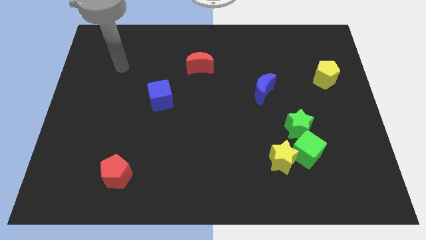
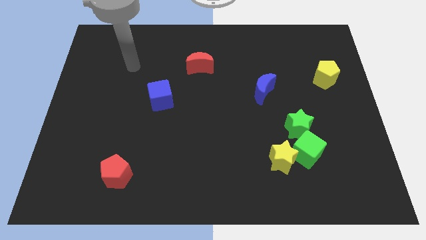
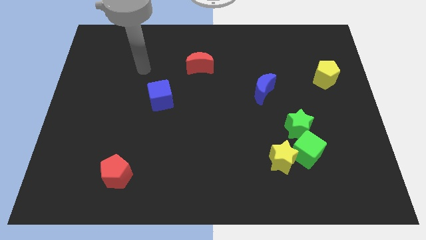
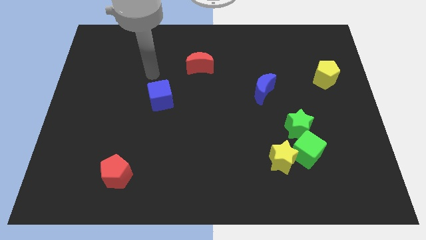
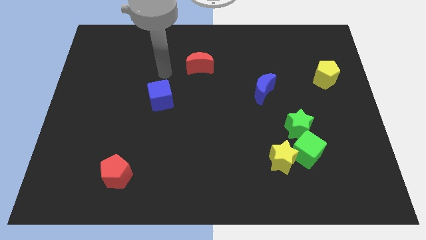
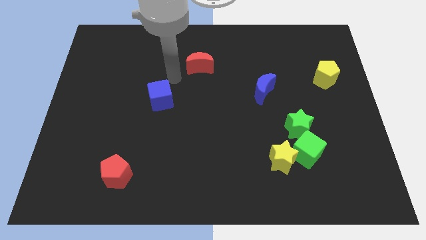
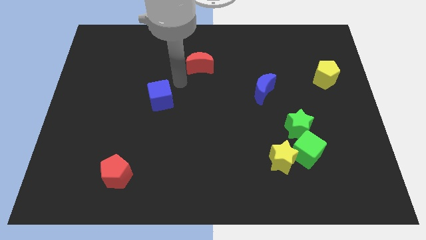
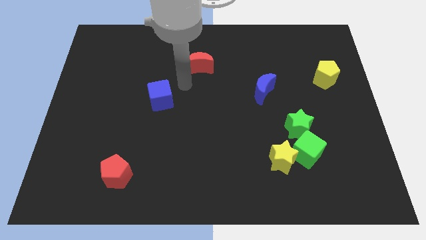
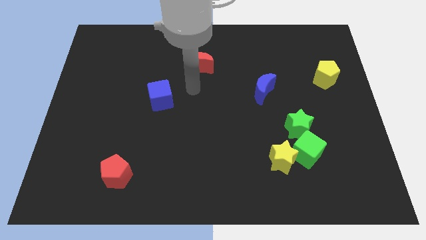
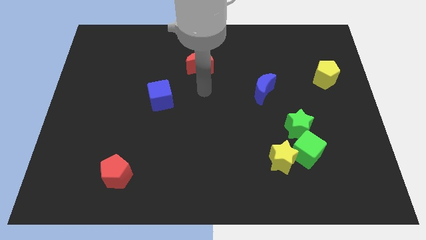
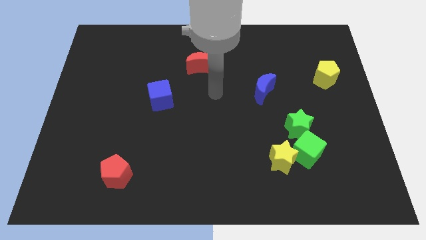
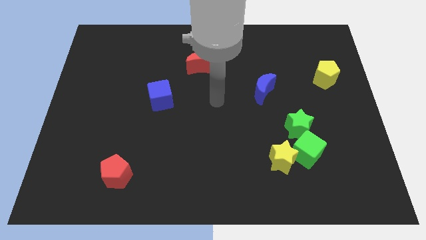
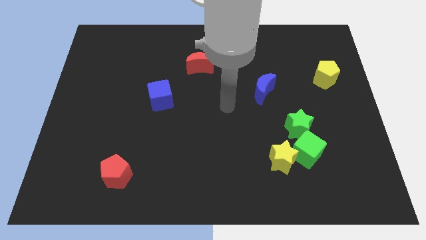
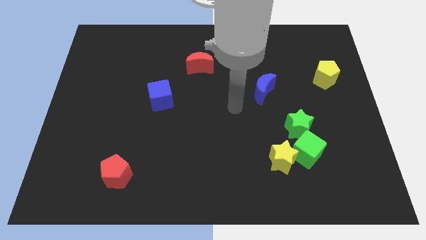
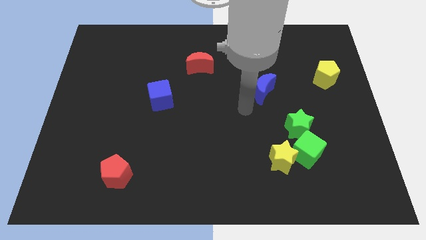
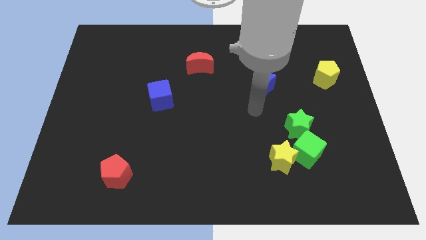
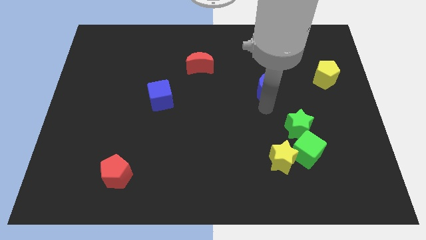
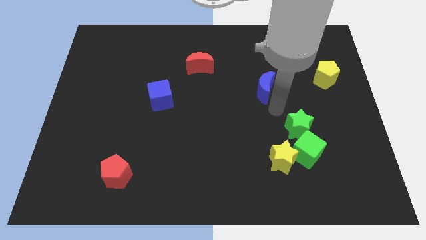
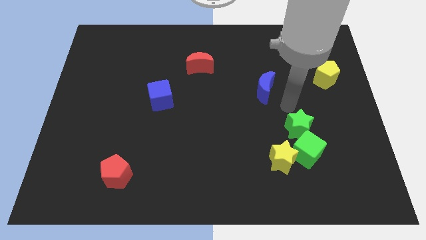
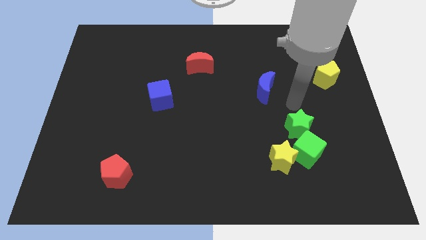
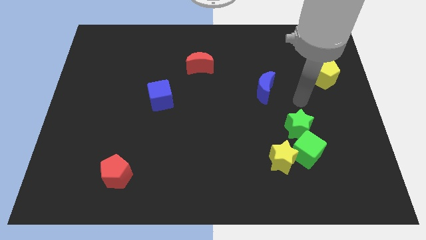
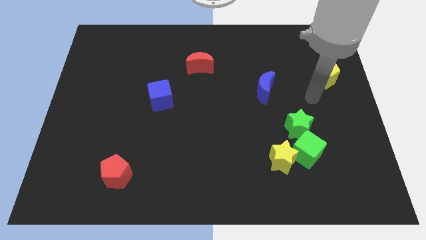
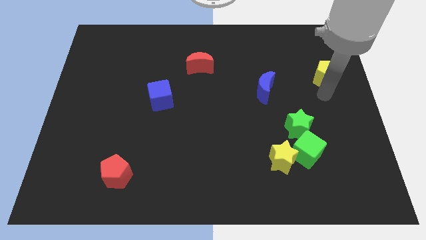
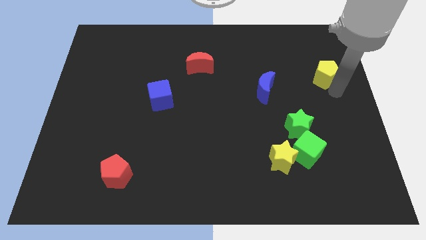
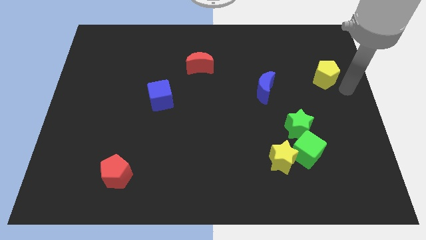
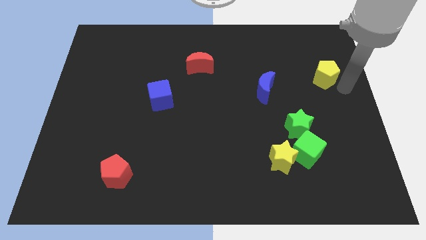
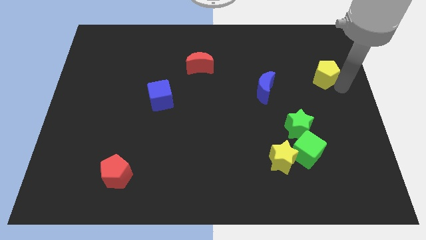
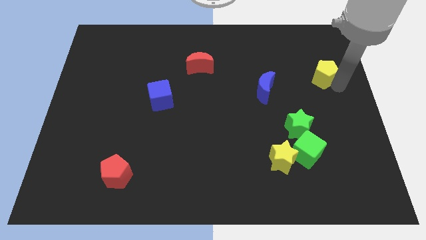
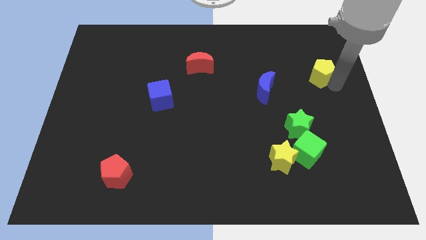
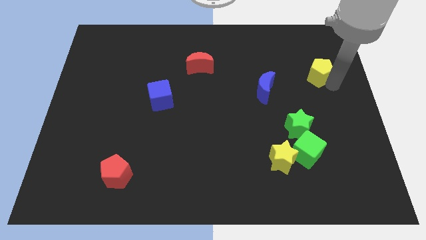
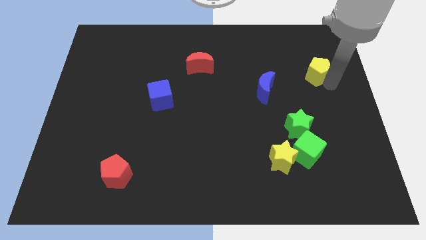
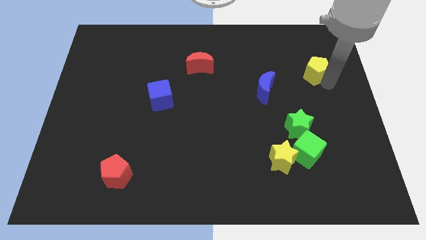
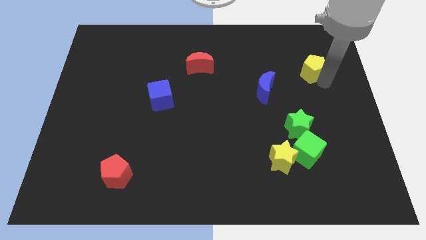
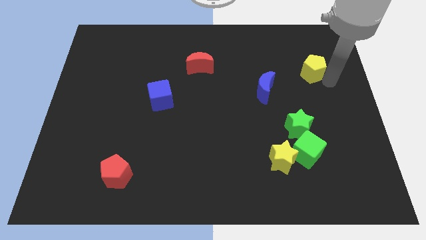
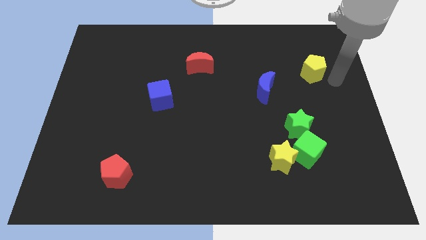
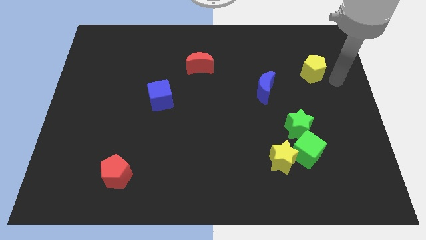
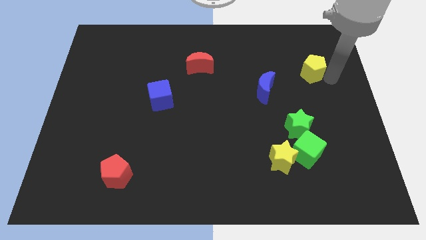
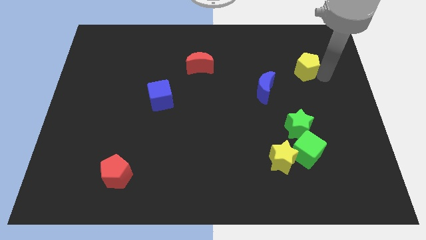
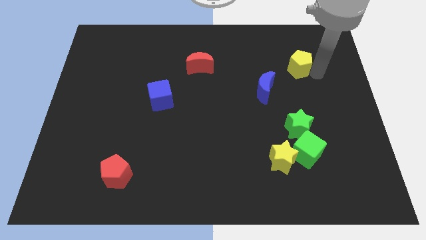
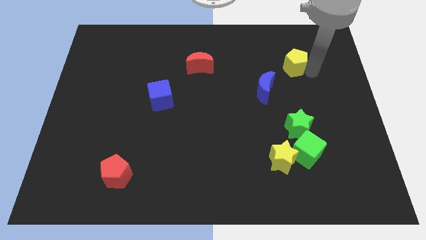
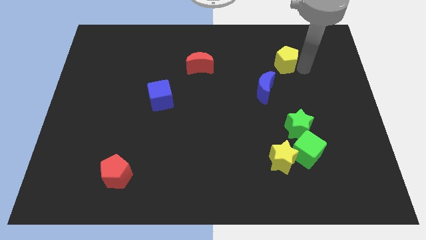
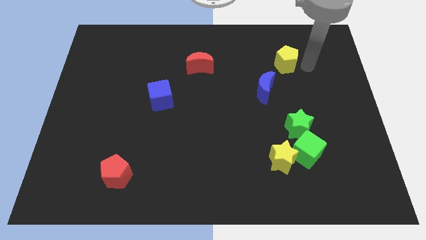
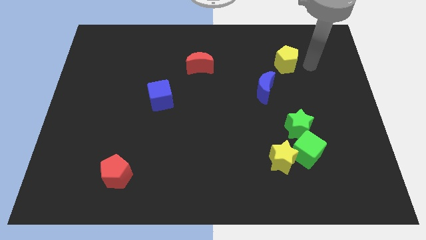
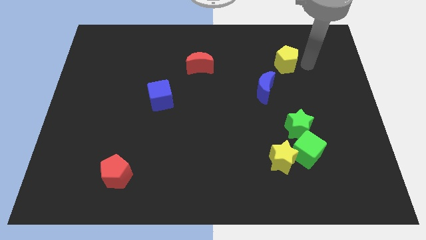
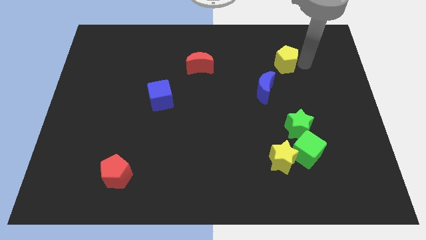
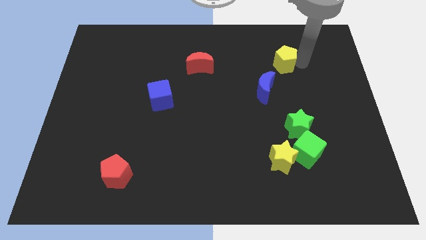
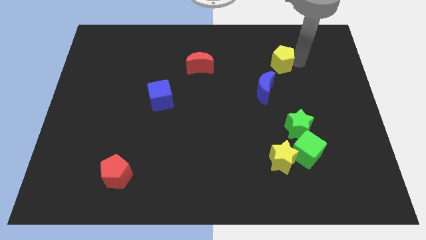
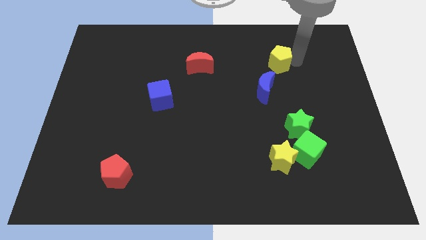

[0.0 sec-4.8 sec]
push the yellow pentagon to the top side of the blue moon

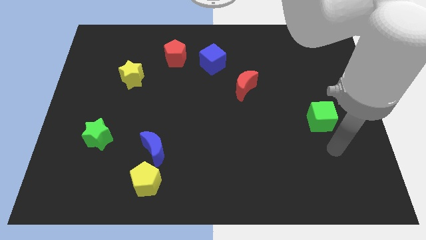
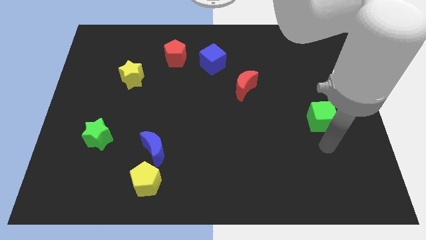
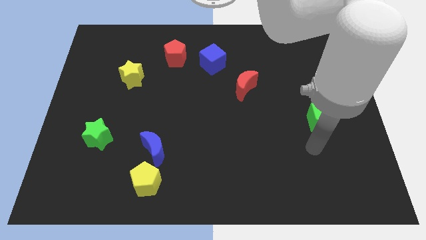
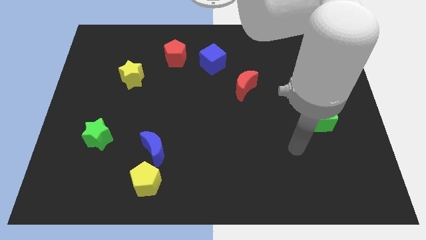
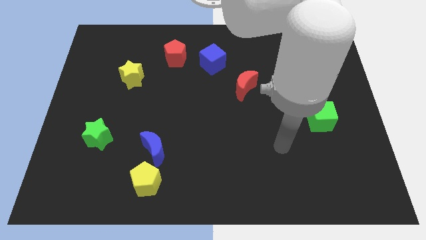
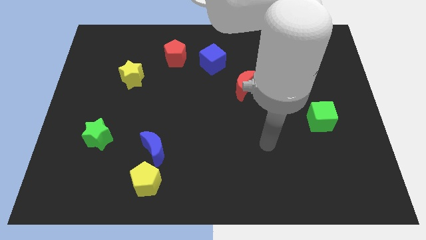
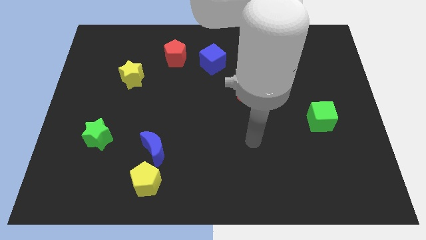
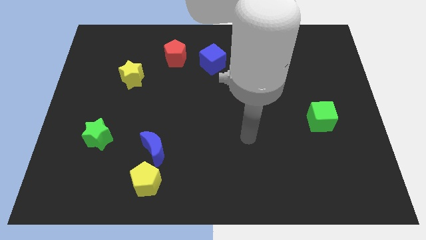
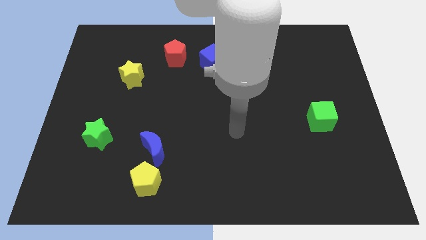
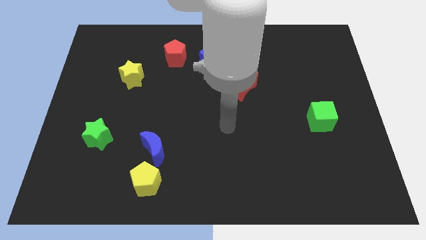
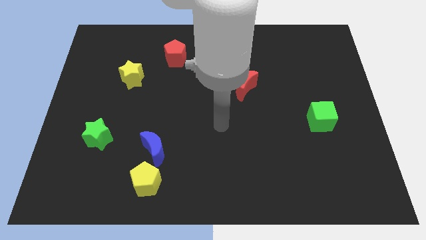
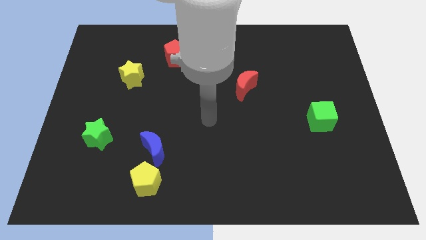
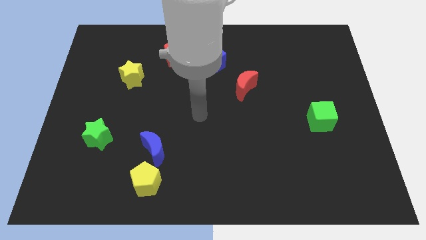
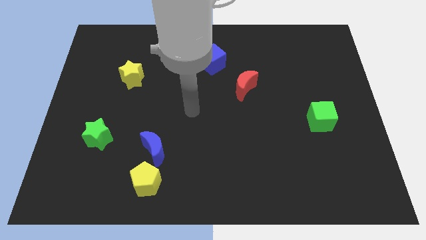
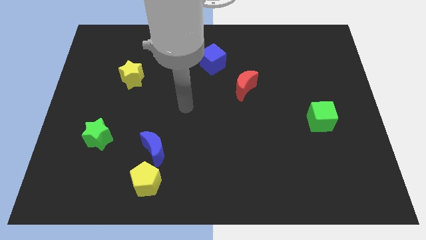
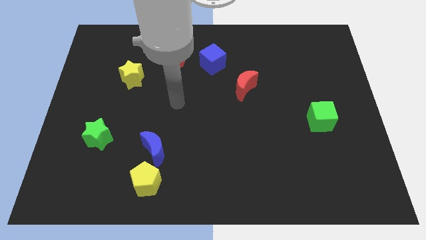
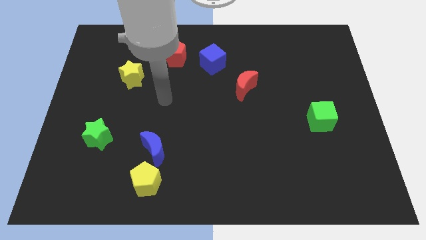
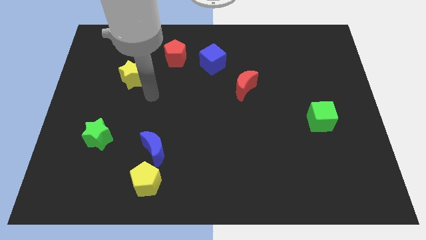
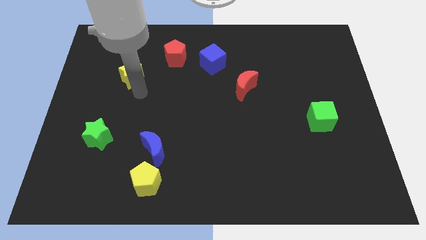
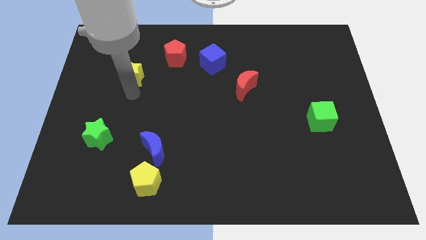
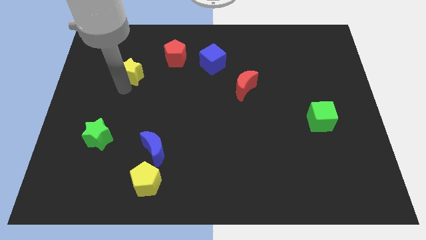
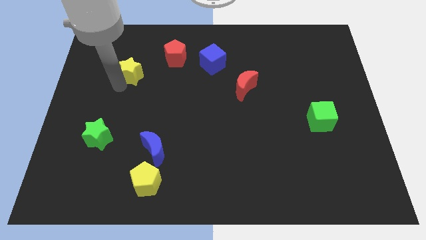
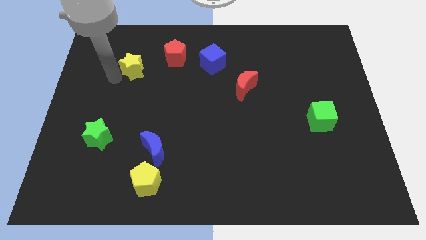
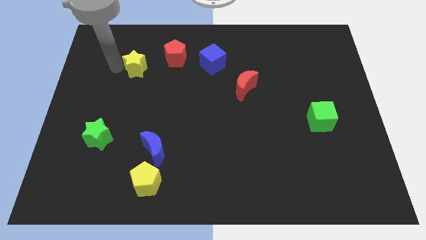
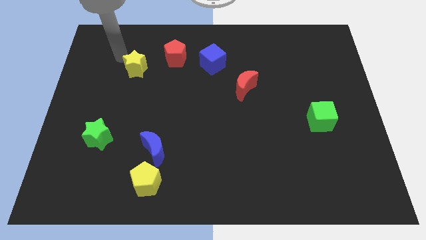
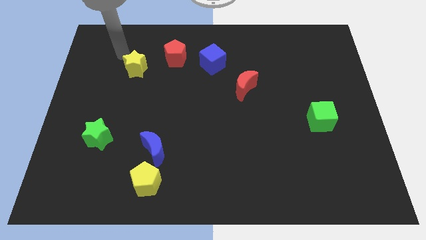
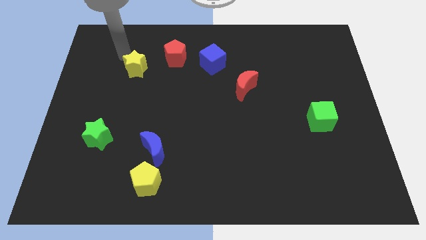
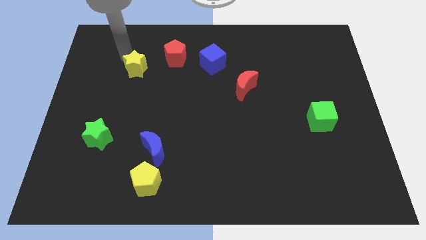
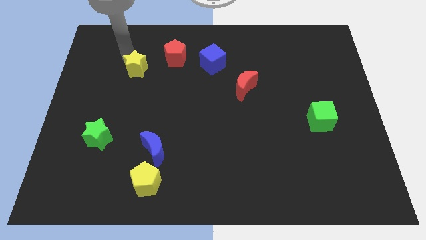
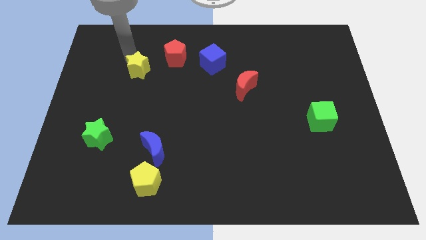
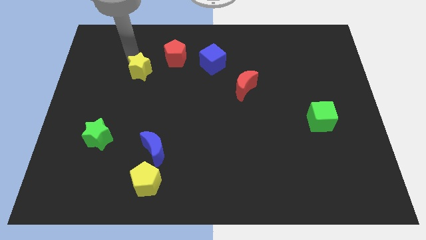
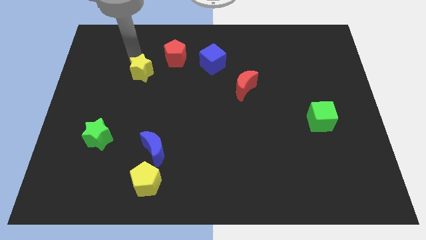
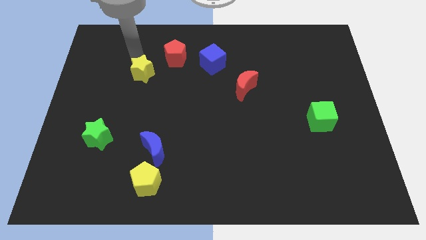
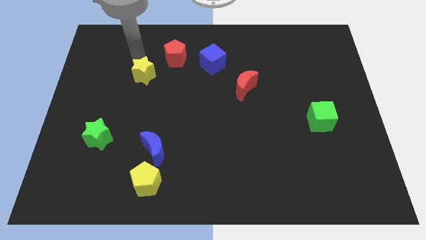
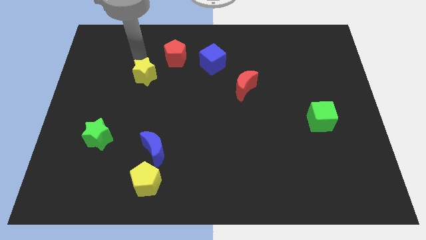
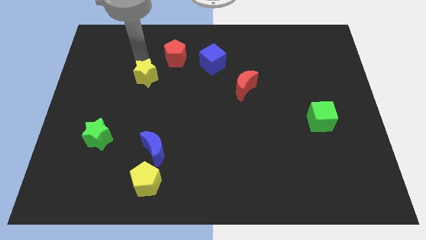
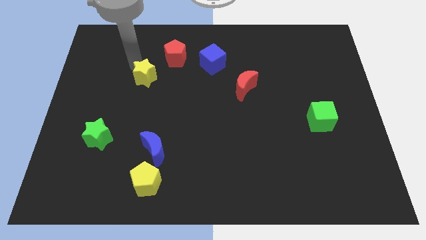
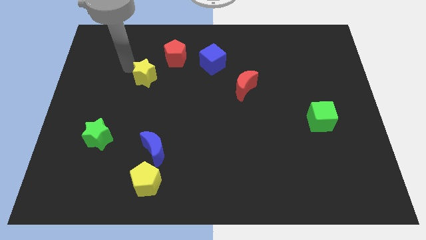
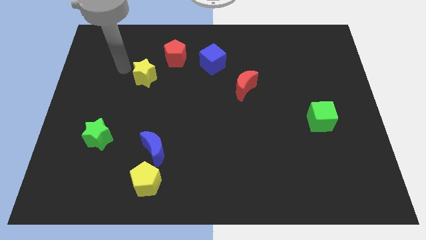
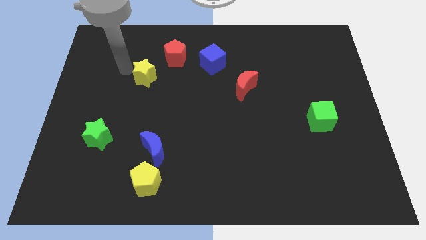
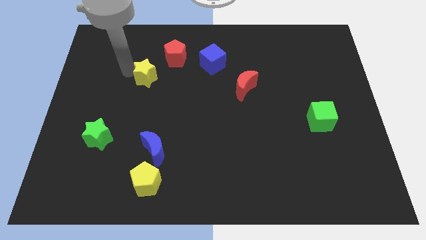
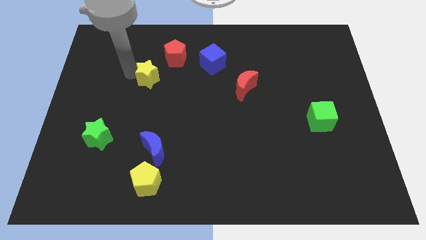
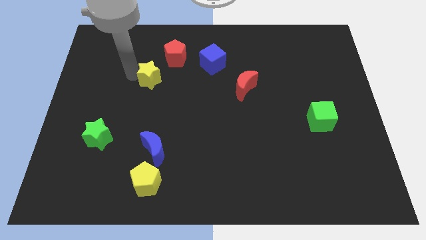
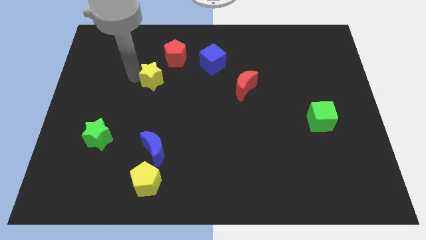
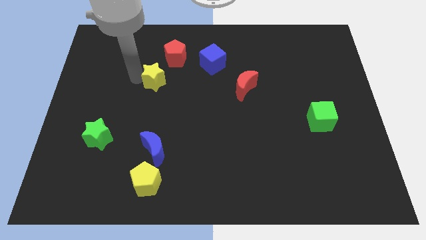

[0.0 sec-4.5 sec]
push the yellow star to the bottom of the red pentagon
